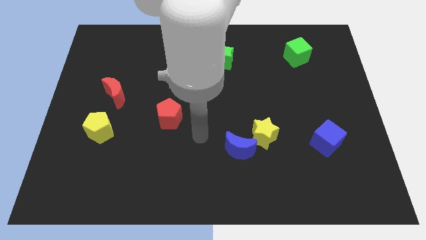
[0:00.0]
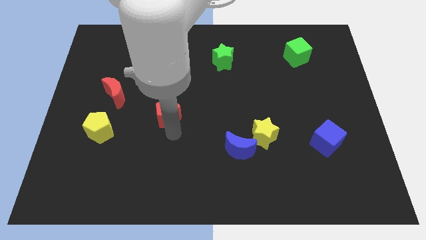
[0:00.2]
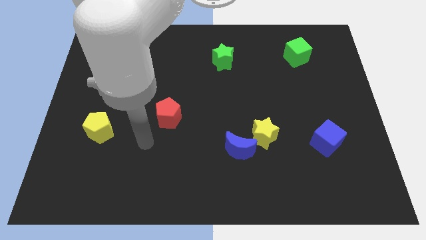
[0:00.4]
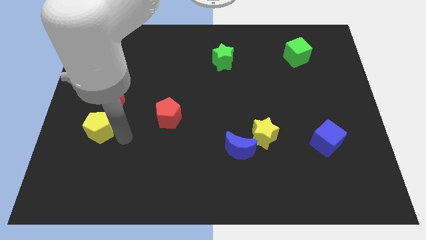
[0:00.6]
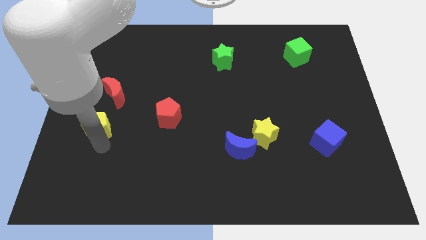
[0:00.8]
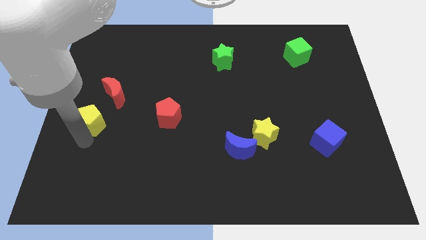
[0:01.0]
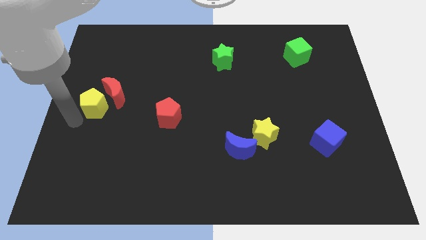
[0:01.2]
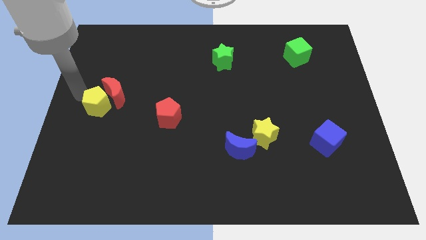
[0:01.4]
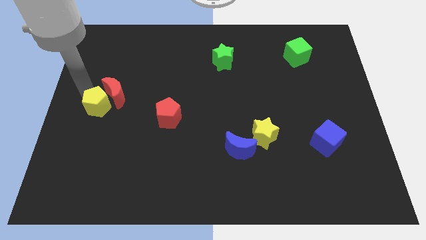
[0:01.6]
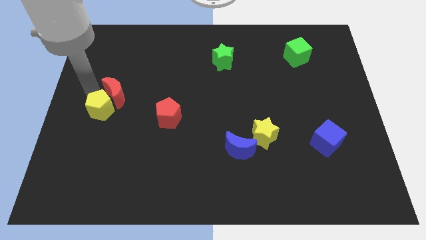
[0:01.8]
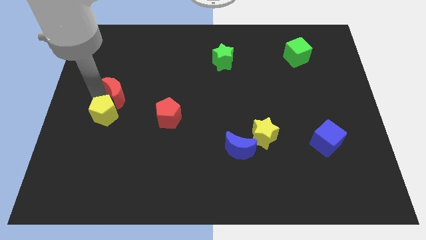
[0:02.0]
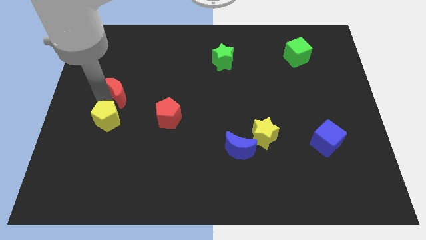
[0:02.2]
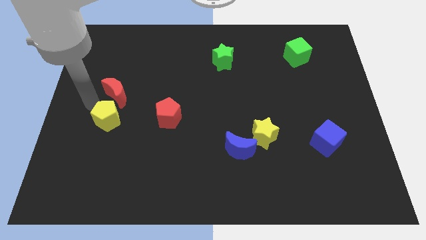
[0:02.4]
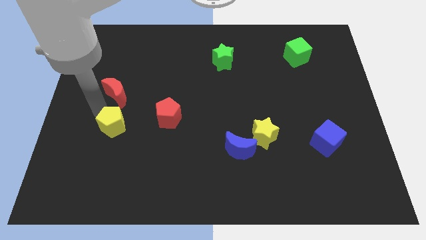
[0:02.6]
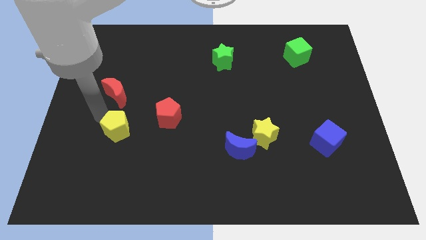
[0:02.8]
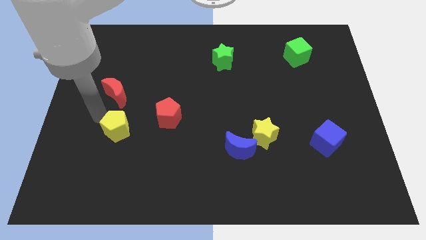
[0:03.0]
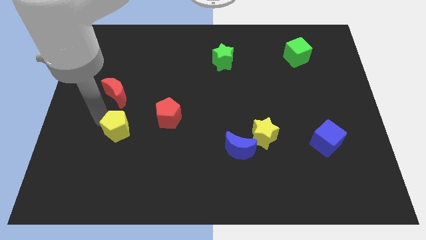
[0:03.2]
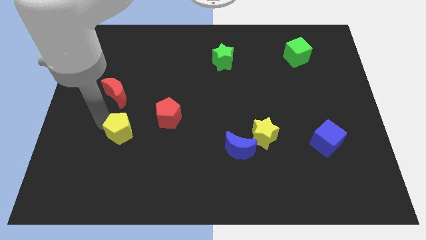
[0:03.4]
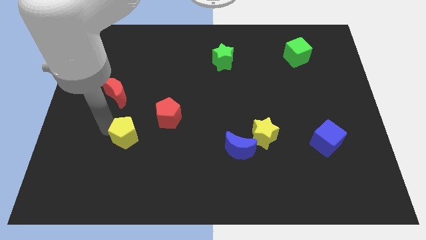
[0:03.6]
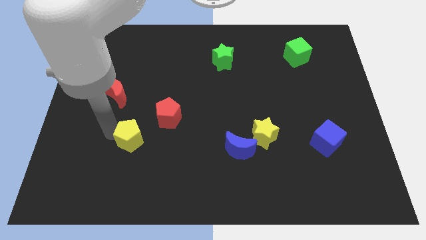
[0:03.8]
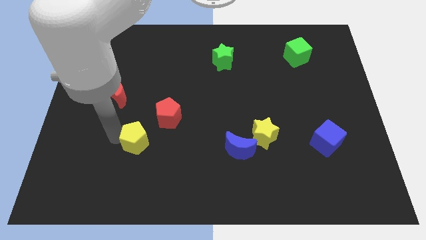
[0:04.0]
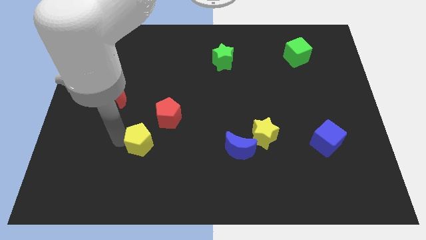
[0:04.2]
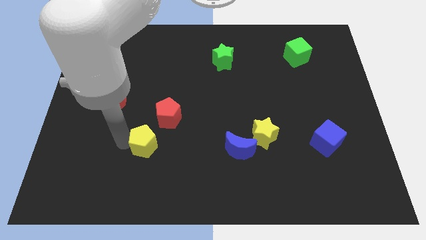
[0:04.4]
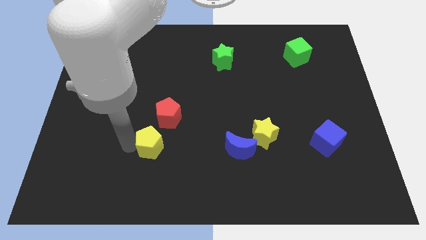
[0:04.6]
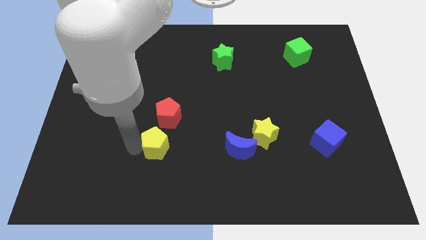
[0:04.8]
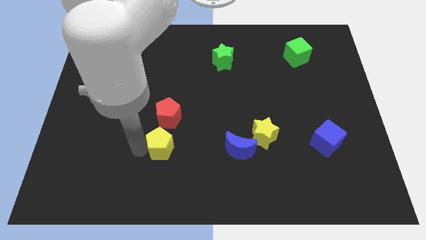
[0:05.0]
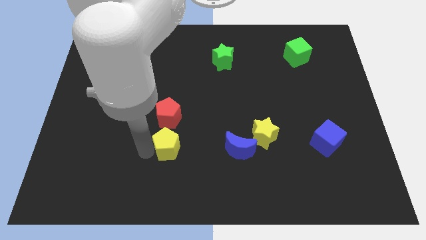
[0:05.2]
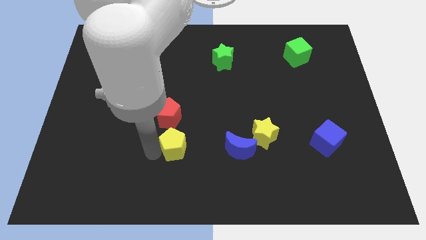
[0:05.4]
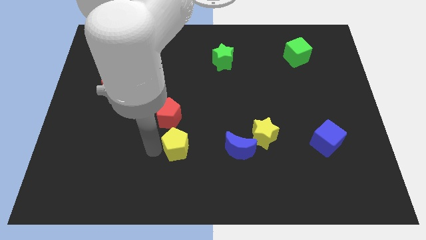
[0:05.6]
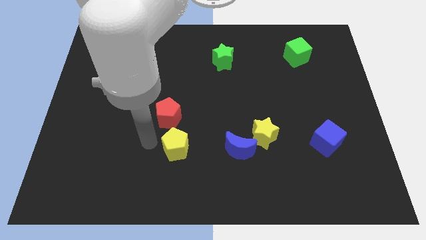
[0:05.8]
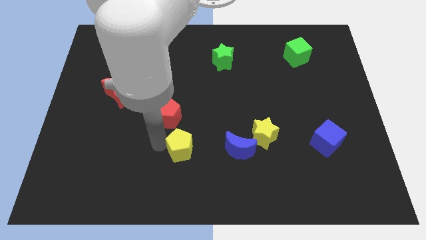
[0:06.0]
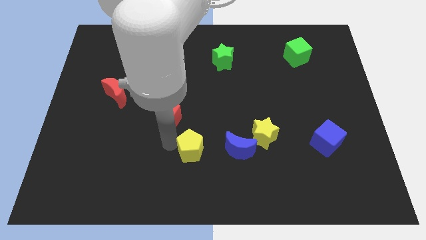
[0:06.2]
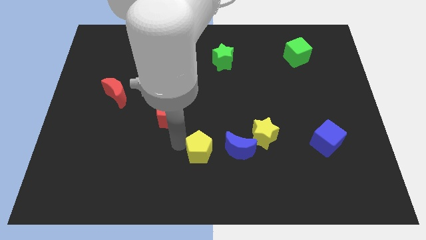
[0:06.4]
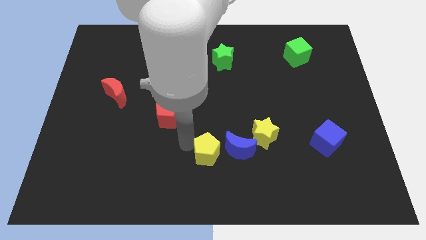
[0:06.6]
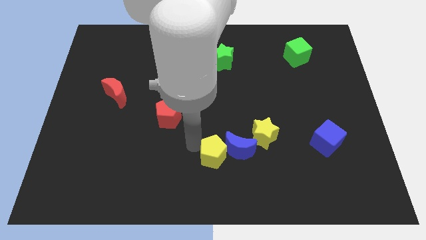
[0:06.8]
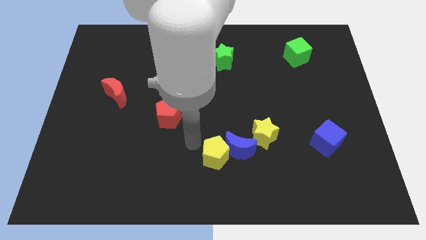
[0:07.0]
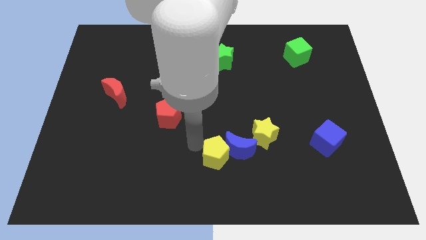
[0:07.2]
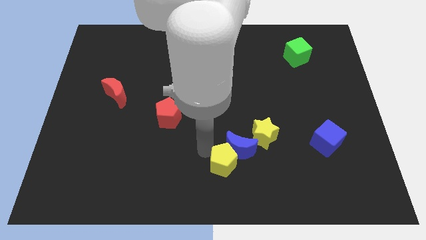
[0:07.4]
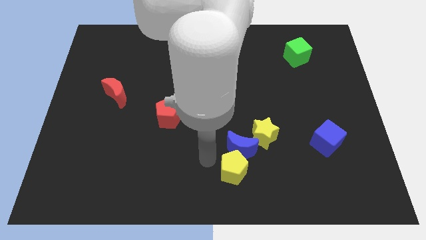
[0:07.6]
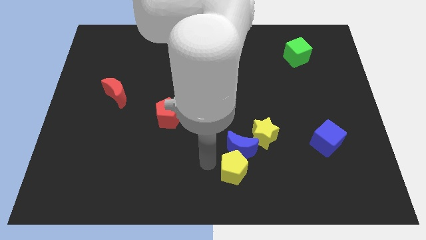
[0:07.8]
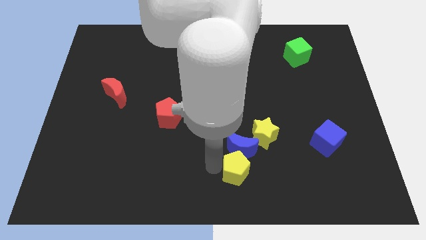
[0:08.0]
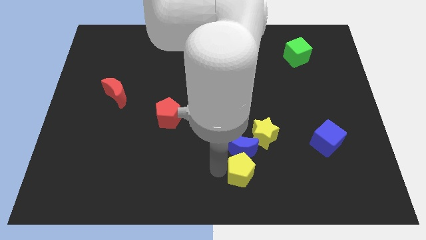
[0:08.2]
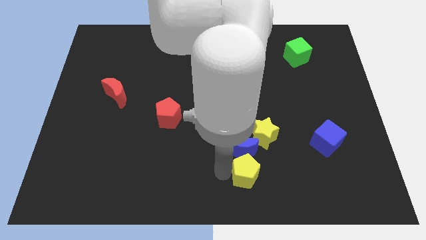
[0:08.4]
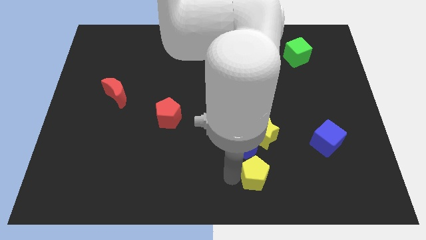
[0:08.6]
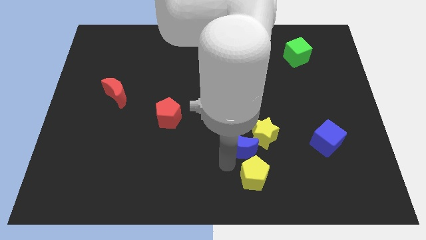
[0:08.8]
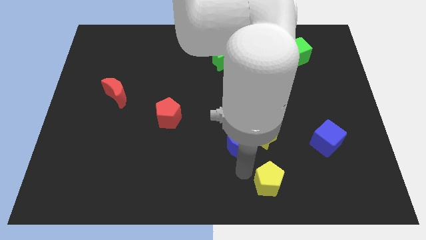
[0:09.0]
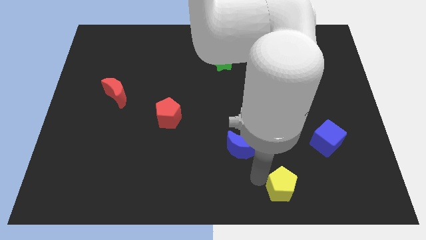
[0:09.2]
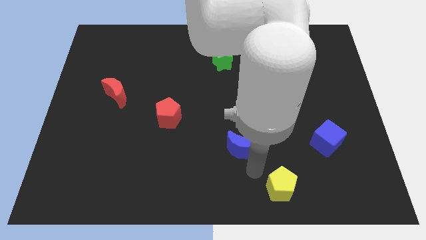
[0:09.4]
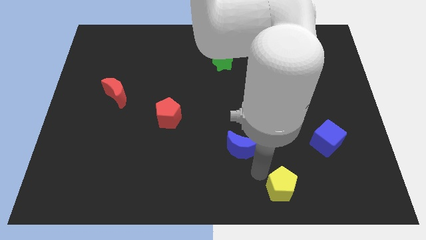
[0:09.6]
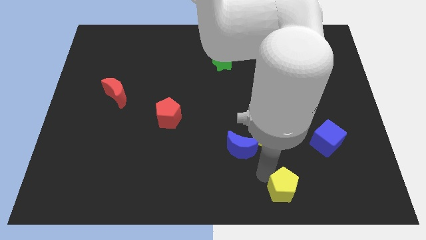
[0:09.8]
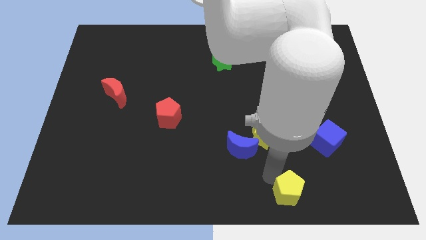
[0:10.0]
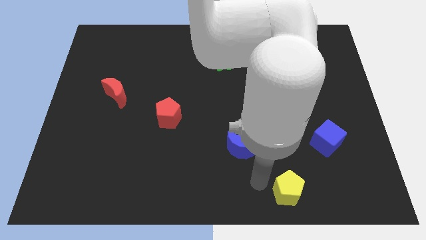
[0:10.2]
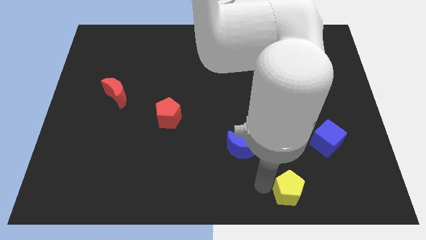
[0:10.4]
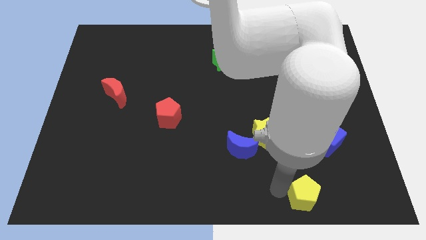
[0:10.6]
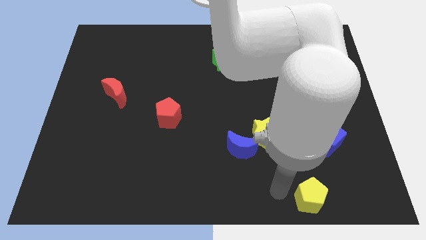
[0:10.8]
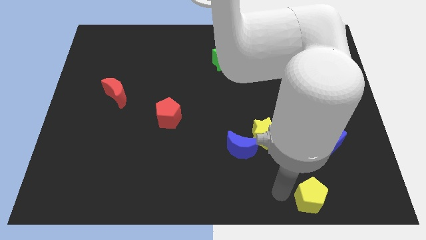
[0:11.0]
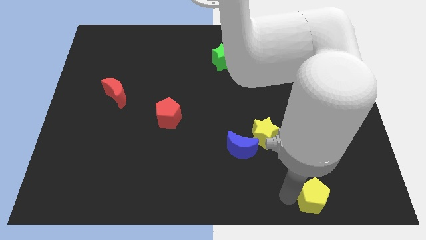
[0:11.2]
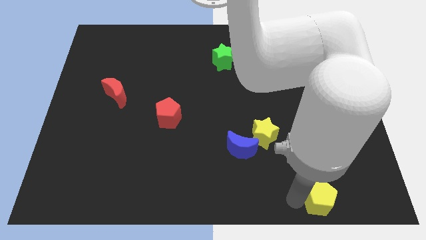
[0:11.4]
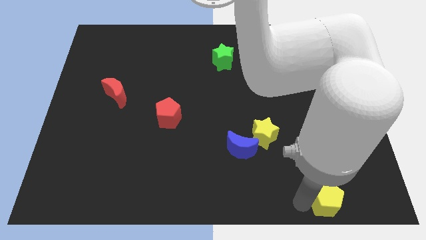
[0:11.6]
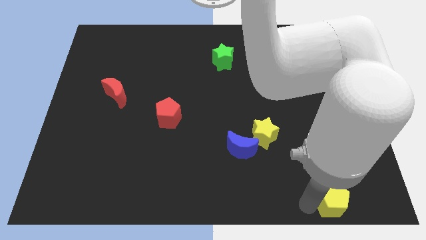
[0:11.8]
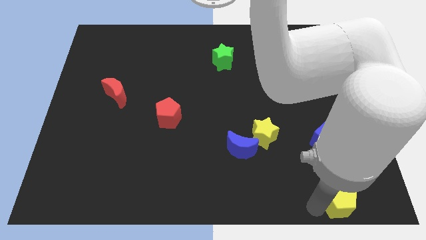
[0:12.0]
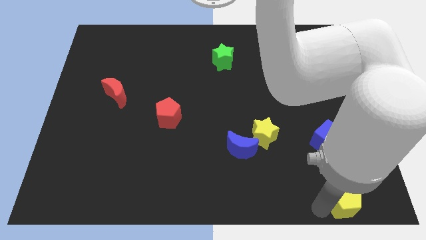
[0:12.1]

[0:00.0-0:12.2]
slide the yellow pentagon to the bottom right corner
